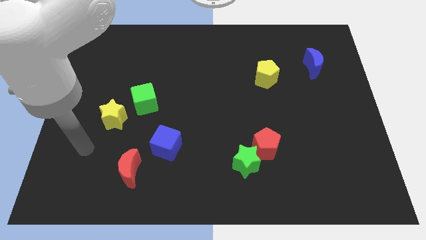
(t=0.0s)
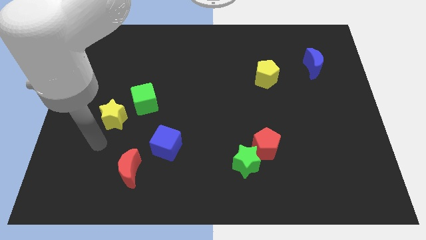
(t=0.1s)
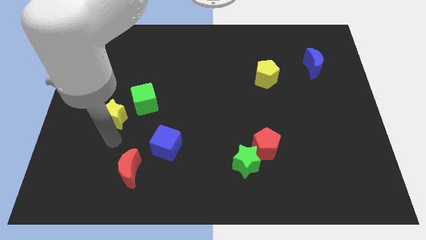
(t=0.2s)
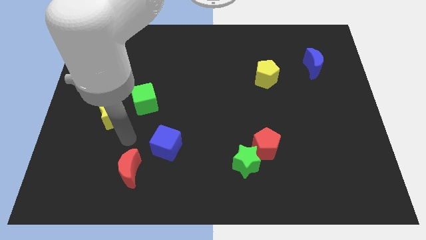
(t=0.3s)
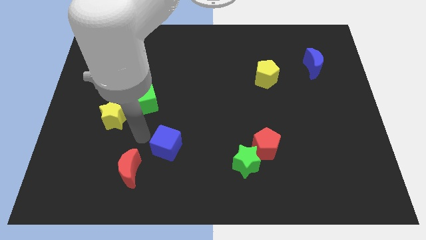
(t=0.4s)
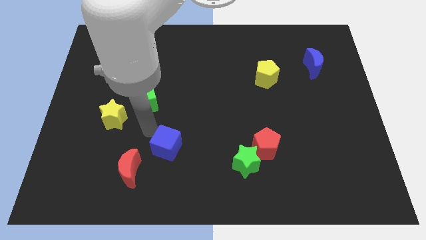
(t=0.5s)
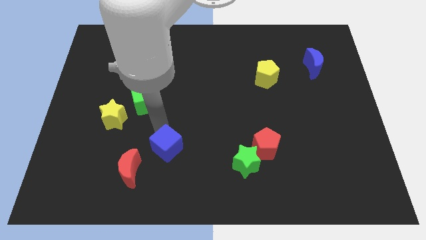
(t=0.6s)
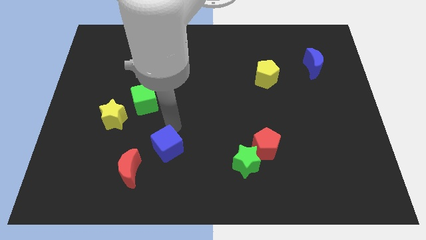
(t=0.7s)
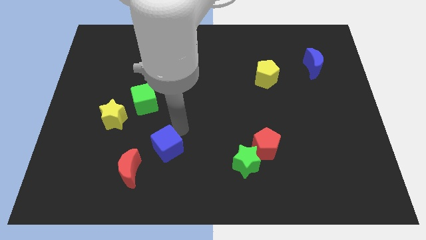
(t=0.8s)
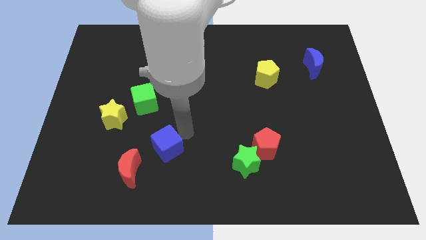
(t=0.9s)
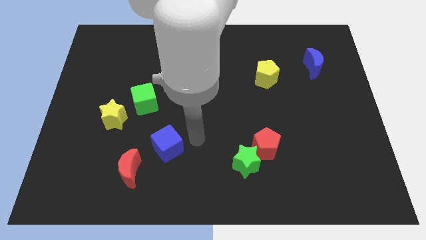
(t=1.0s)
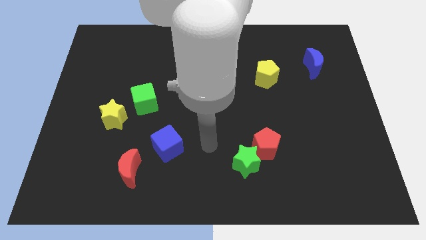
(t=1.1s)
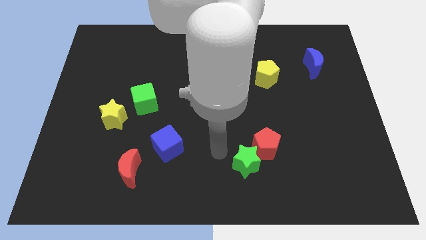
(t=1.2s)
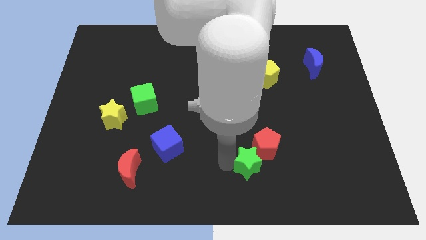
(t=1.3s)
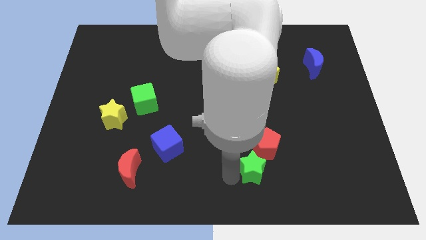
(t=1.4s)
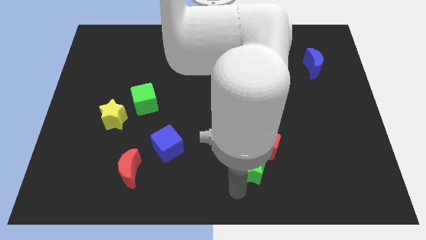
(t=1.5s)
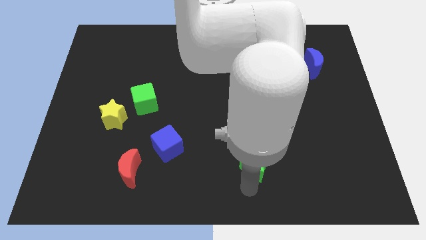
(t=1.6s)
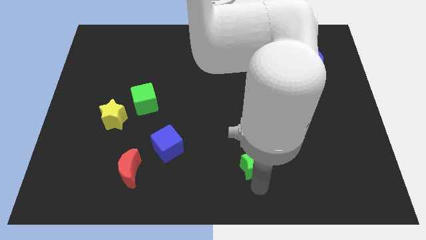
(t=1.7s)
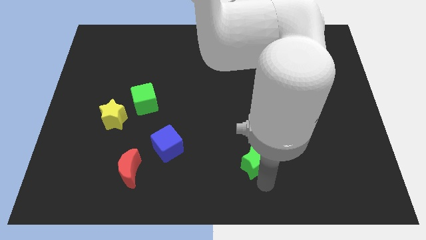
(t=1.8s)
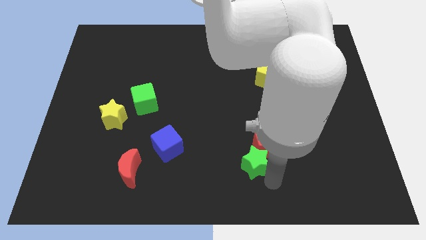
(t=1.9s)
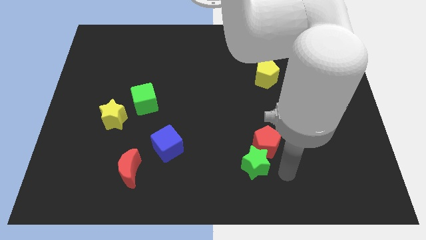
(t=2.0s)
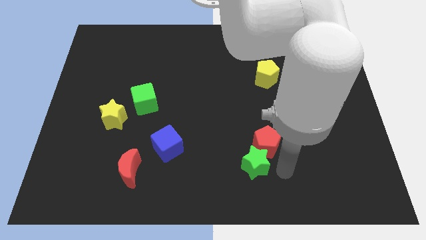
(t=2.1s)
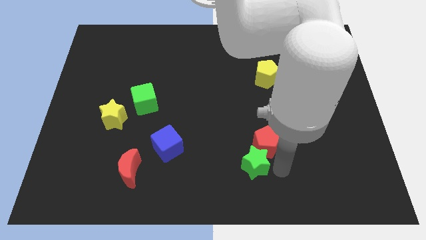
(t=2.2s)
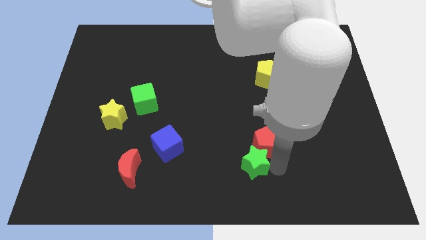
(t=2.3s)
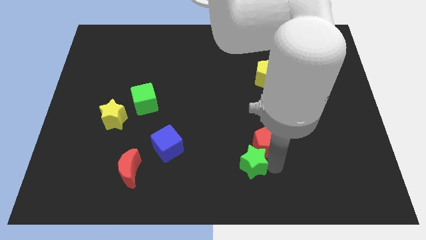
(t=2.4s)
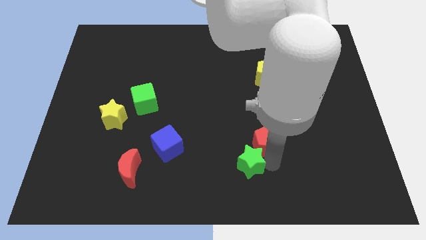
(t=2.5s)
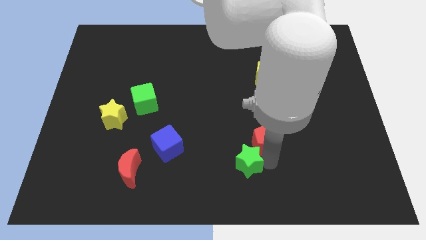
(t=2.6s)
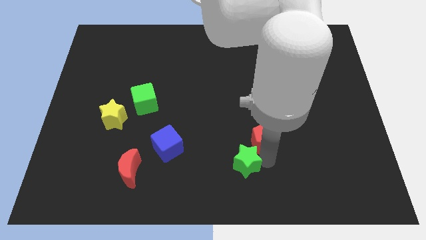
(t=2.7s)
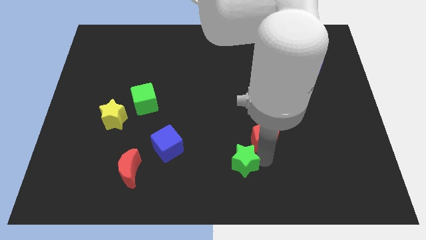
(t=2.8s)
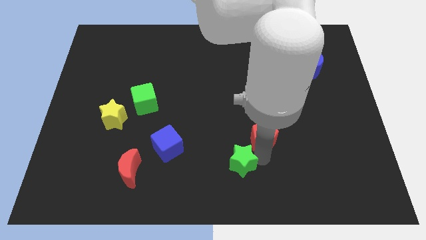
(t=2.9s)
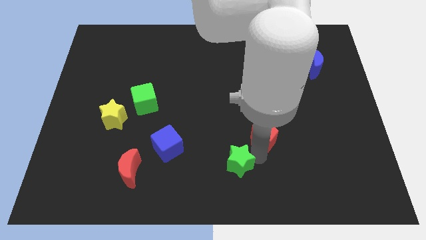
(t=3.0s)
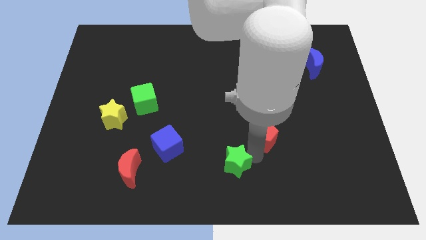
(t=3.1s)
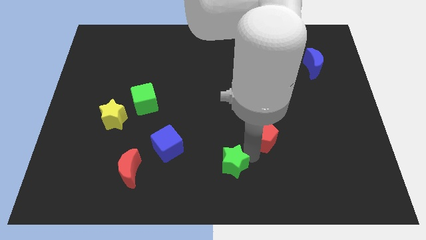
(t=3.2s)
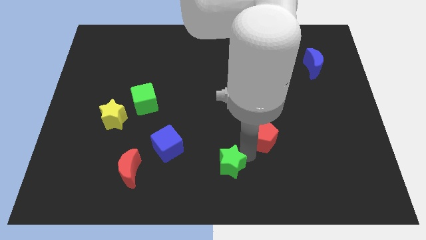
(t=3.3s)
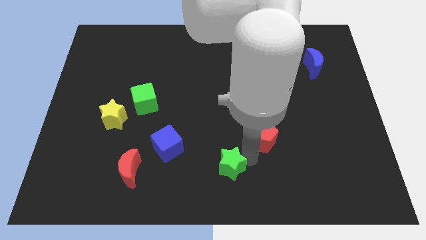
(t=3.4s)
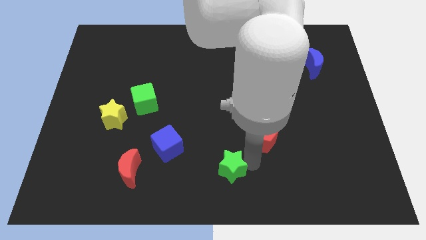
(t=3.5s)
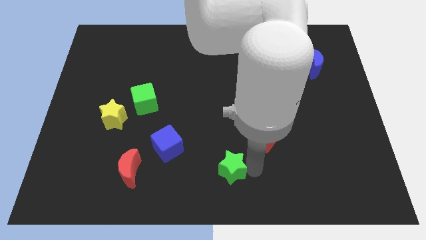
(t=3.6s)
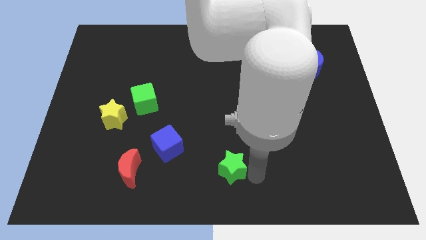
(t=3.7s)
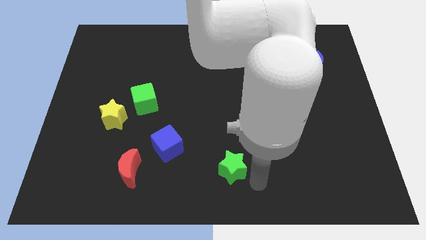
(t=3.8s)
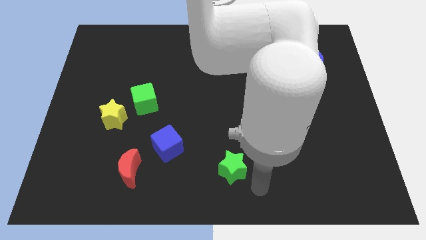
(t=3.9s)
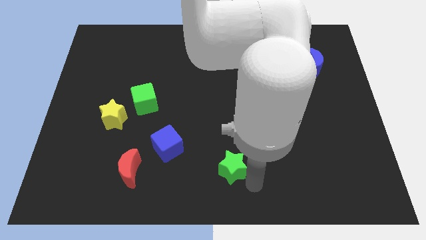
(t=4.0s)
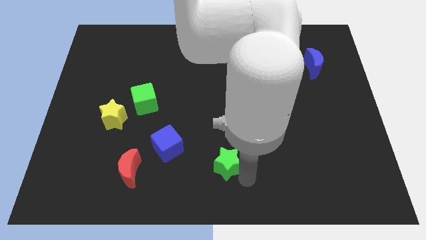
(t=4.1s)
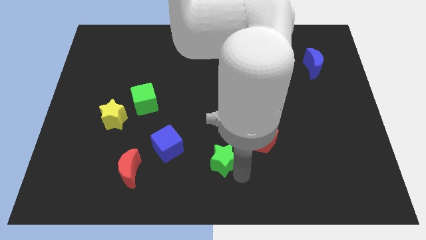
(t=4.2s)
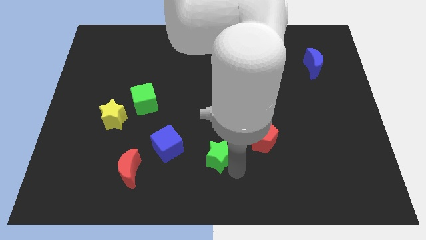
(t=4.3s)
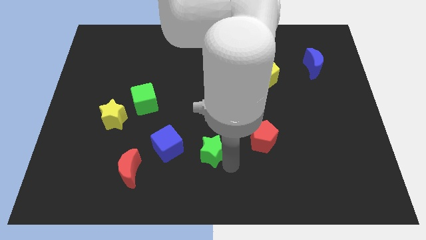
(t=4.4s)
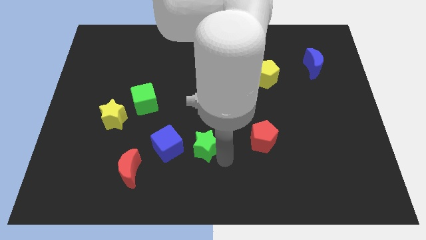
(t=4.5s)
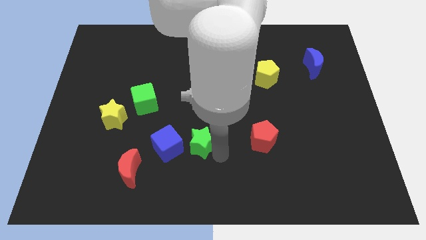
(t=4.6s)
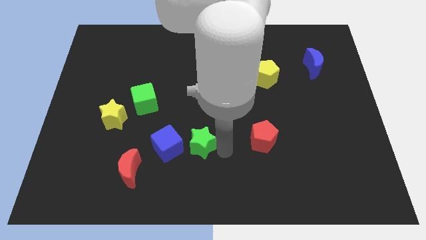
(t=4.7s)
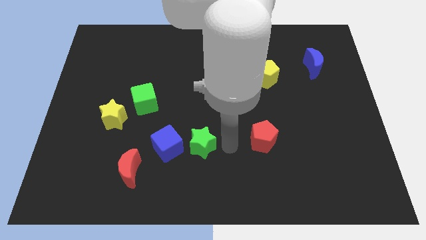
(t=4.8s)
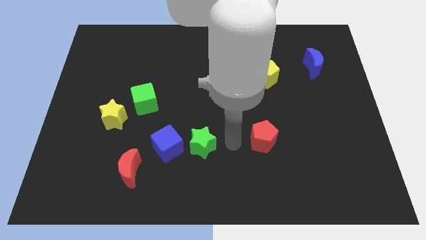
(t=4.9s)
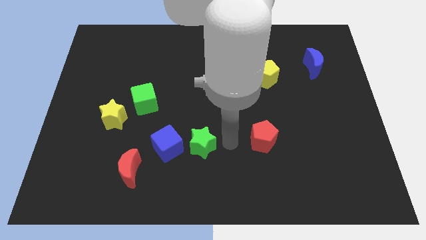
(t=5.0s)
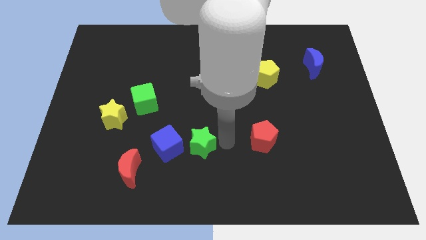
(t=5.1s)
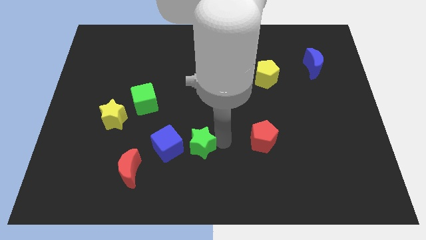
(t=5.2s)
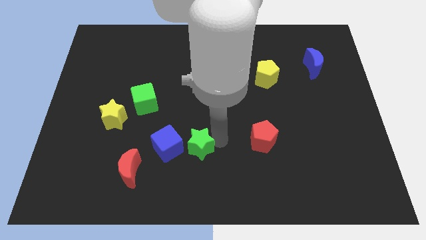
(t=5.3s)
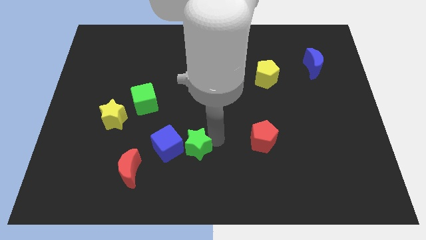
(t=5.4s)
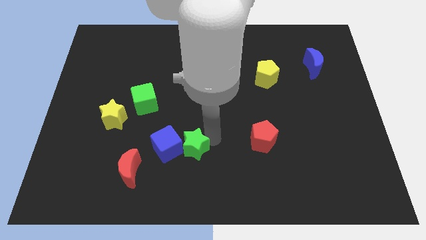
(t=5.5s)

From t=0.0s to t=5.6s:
put the green star to the blue cube
